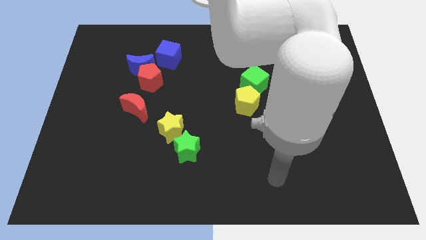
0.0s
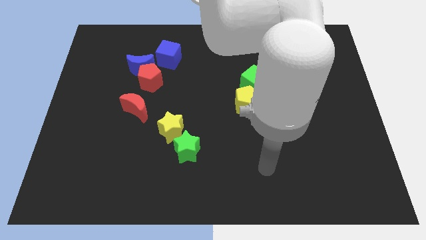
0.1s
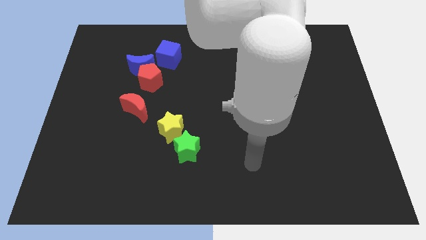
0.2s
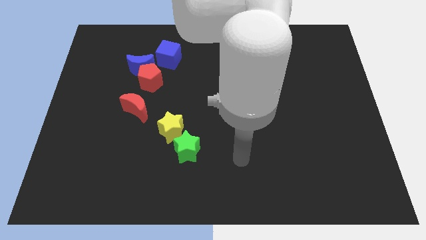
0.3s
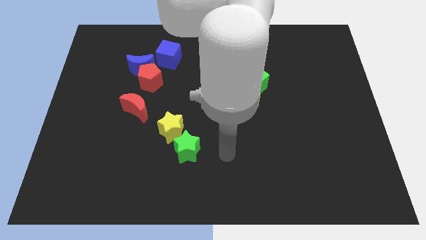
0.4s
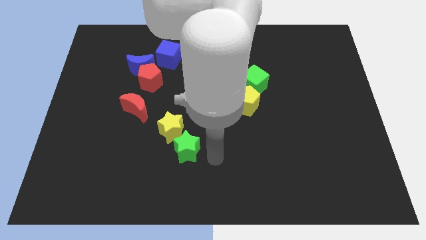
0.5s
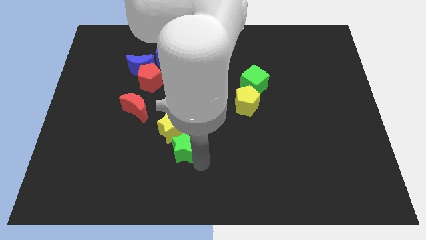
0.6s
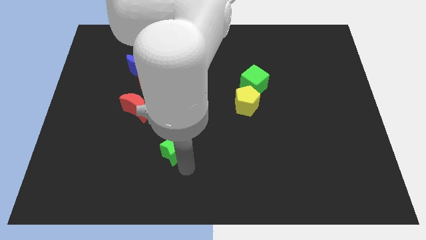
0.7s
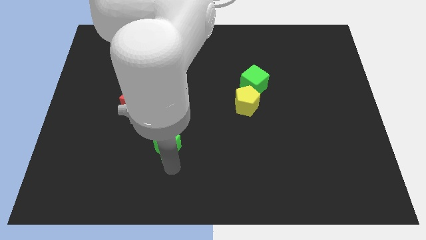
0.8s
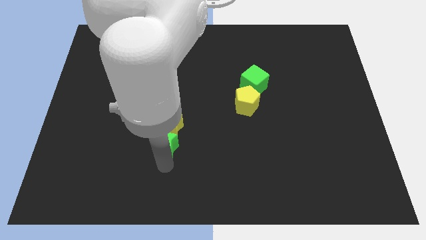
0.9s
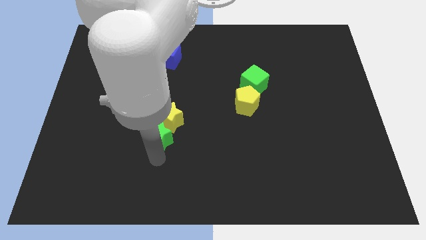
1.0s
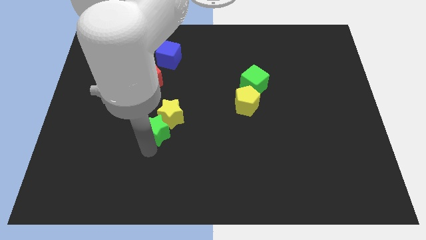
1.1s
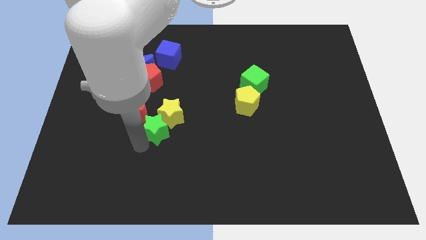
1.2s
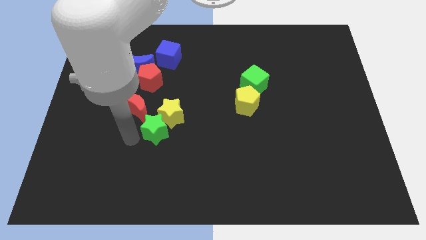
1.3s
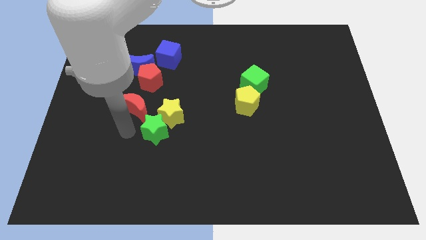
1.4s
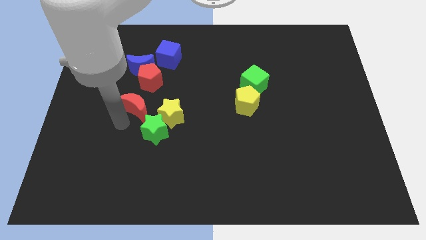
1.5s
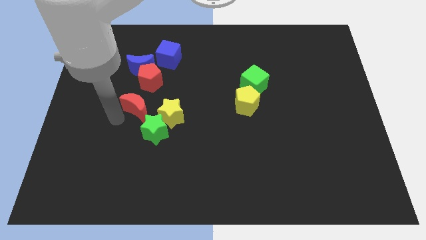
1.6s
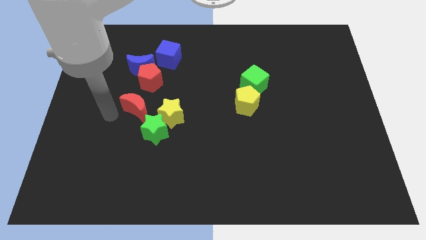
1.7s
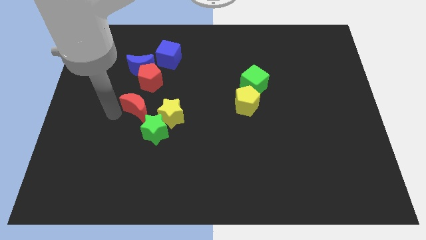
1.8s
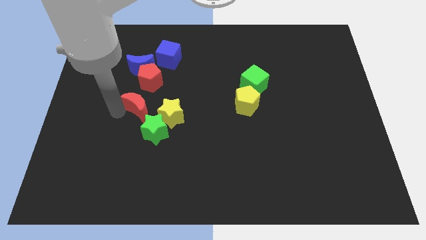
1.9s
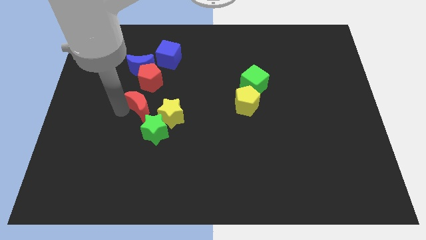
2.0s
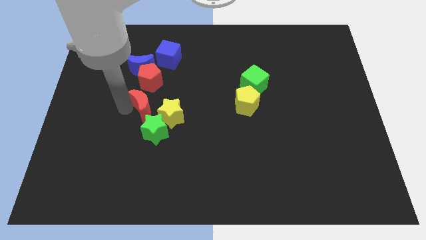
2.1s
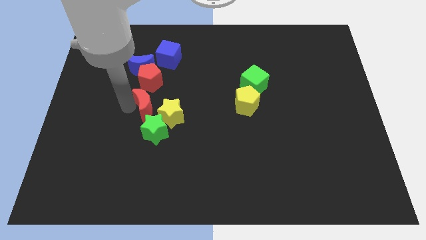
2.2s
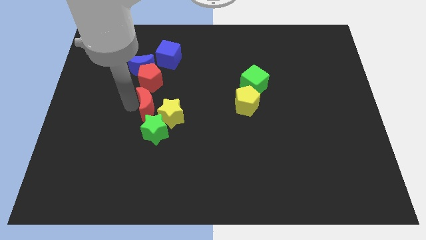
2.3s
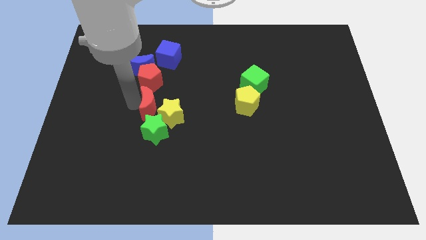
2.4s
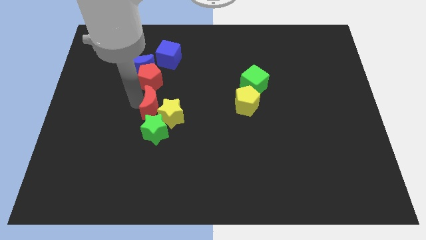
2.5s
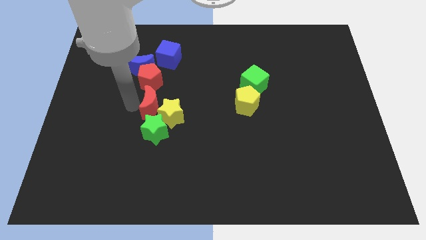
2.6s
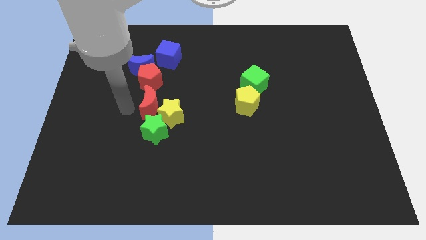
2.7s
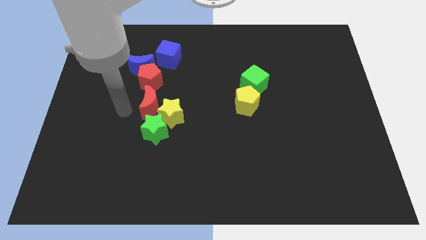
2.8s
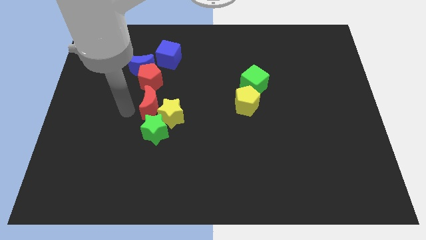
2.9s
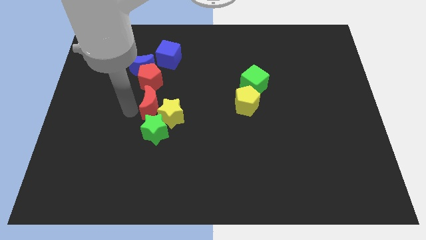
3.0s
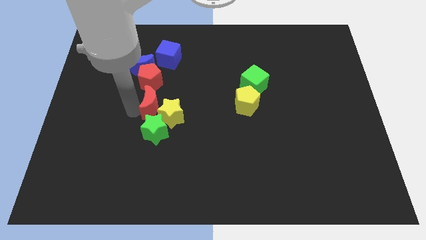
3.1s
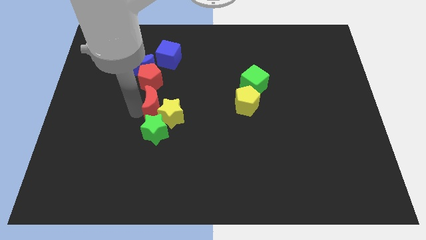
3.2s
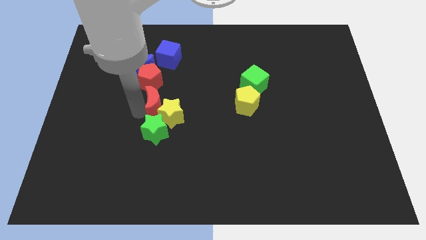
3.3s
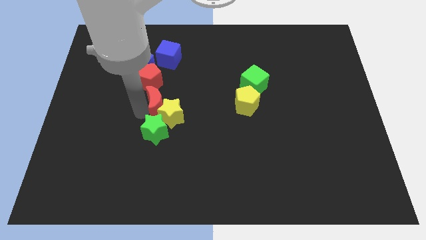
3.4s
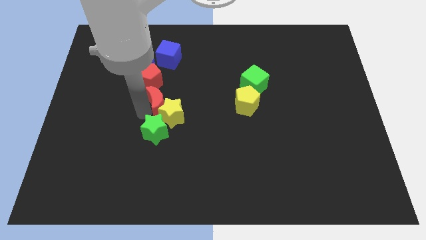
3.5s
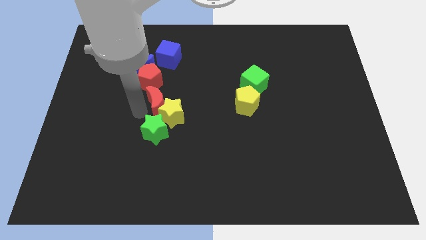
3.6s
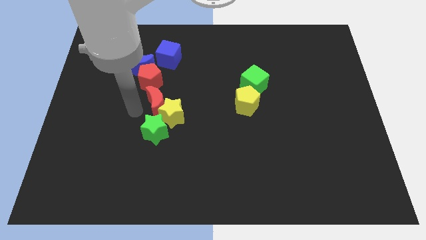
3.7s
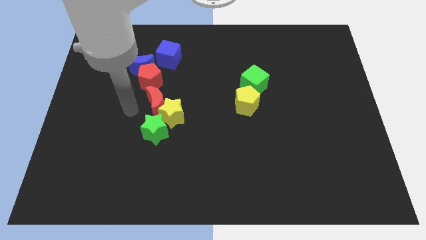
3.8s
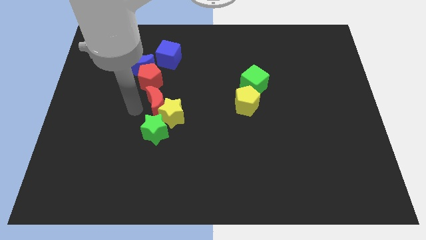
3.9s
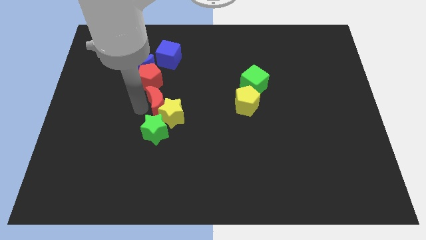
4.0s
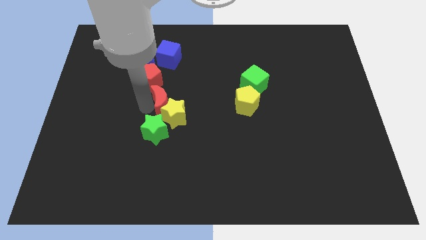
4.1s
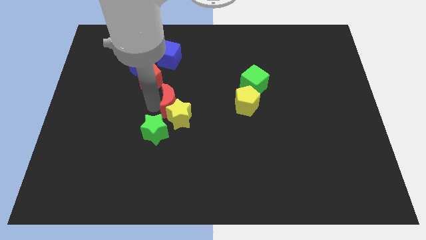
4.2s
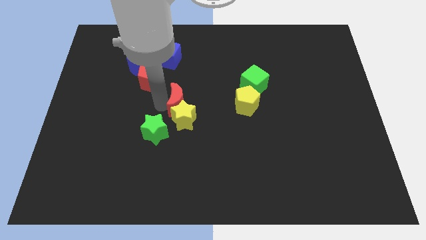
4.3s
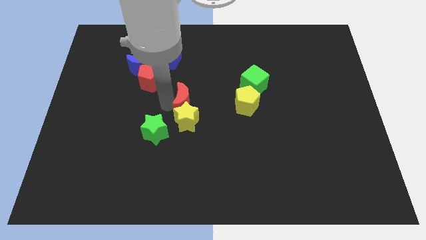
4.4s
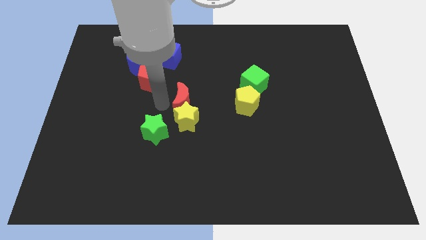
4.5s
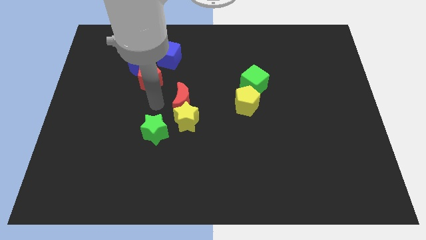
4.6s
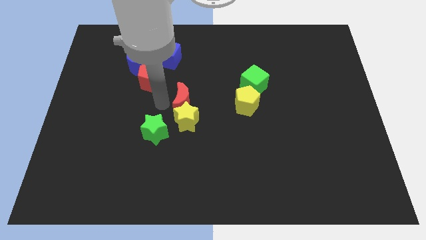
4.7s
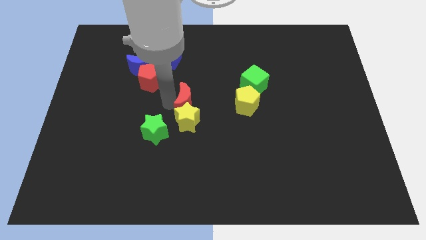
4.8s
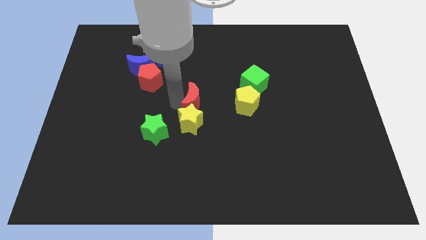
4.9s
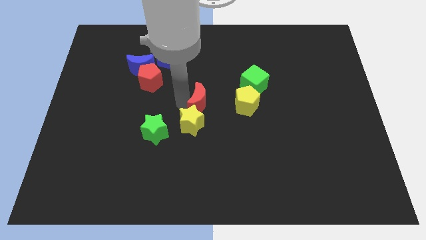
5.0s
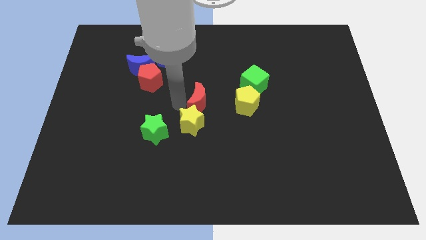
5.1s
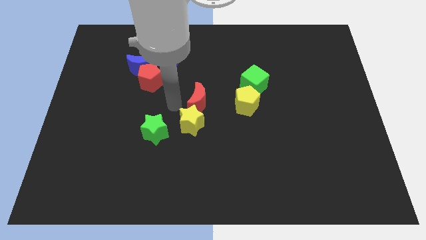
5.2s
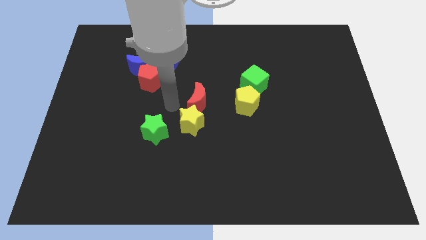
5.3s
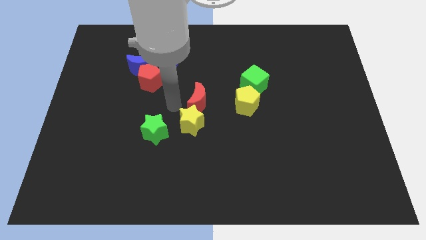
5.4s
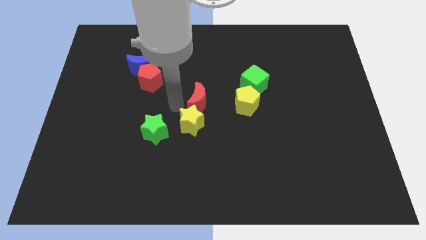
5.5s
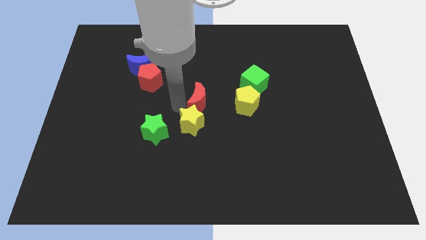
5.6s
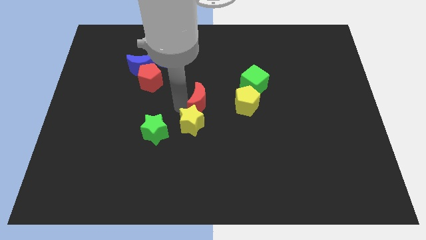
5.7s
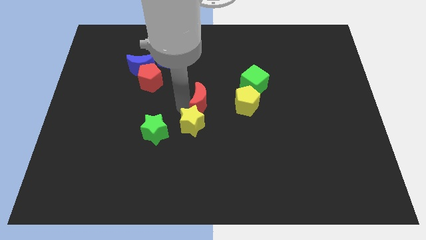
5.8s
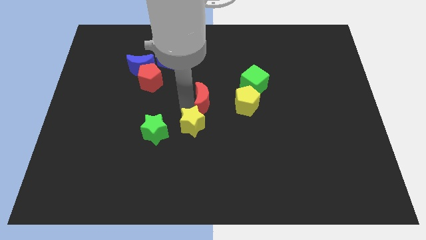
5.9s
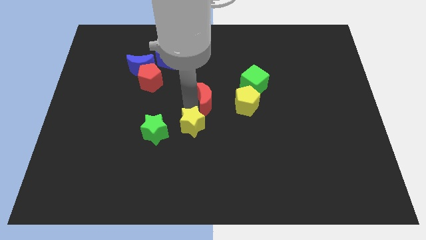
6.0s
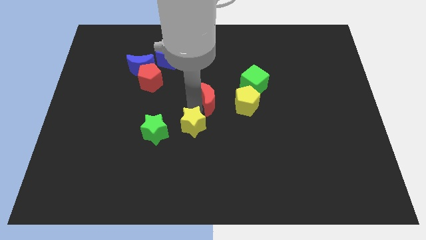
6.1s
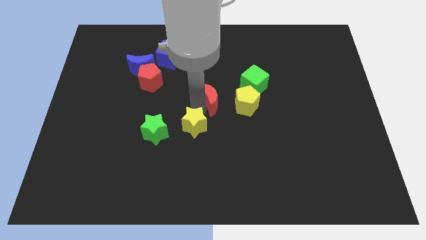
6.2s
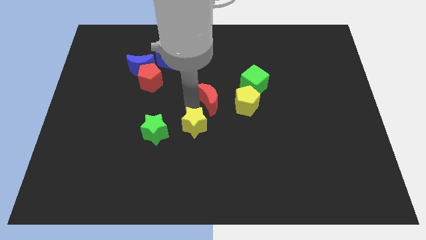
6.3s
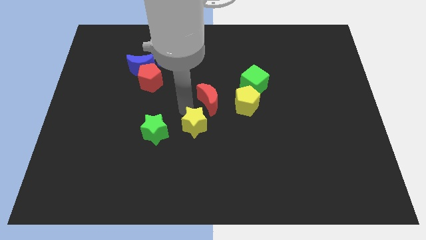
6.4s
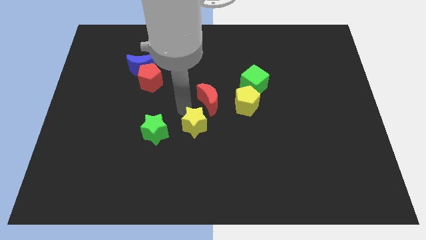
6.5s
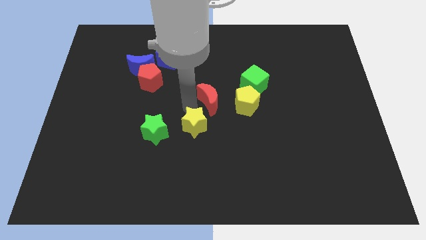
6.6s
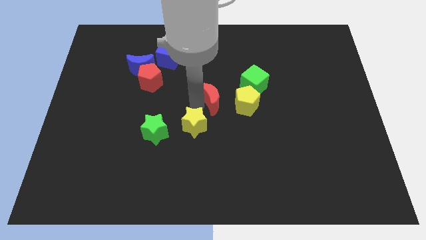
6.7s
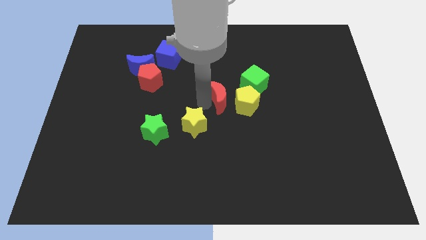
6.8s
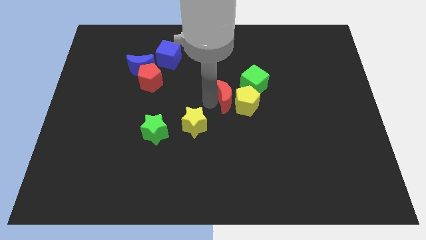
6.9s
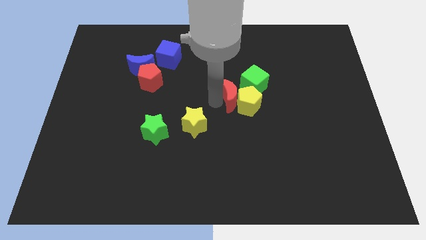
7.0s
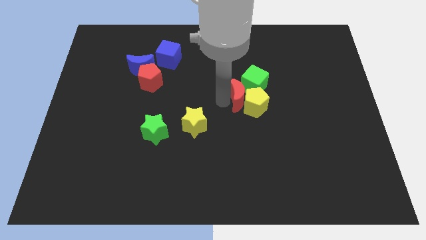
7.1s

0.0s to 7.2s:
slide the red moon towards the green cube
